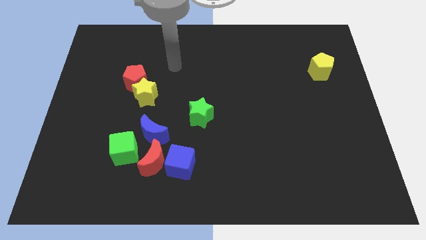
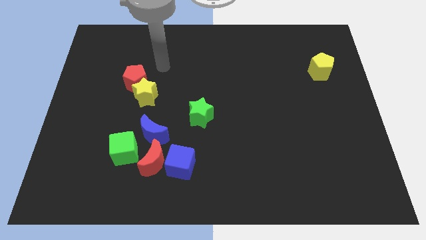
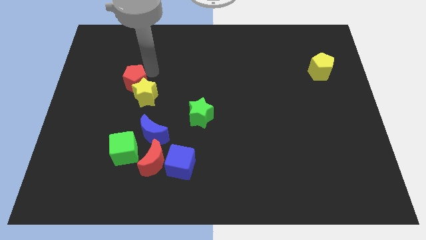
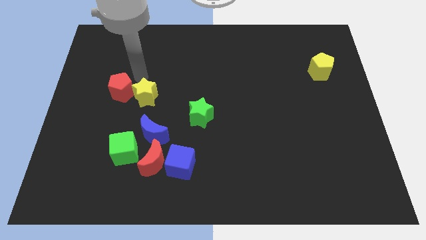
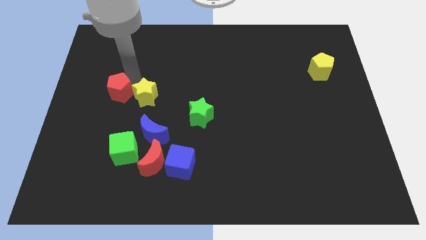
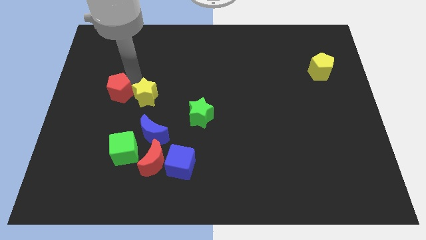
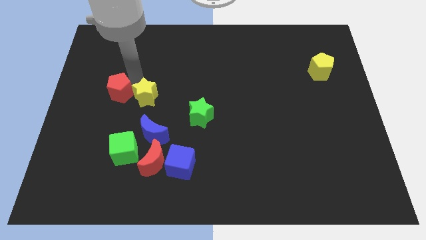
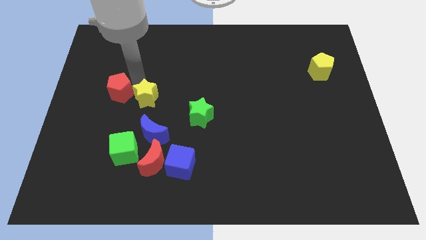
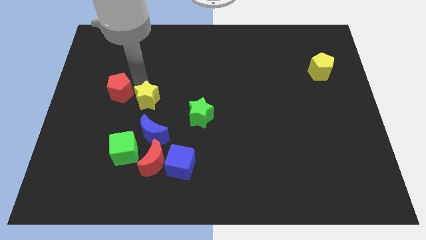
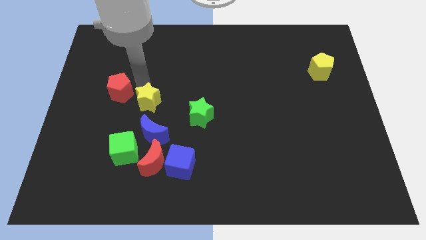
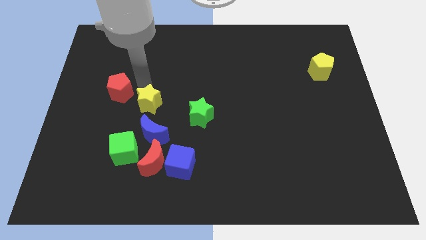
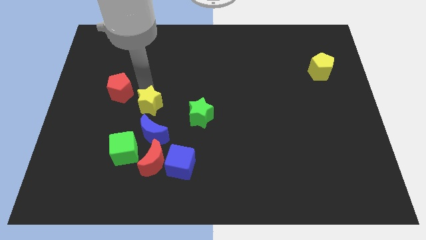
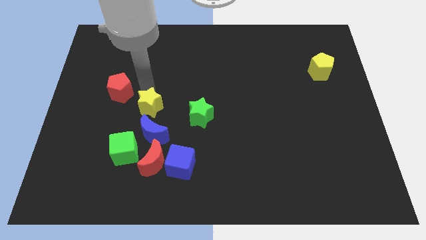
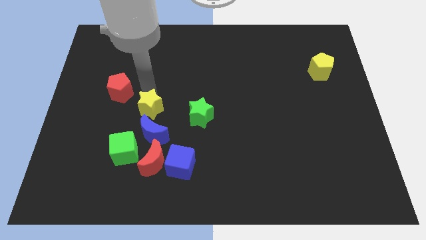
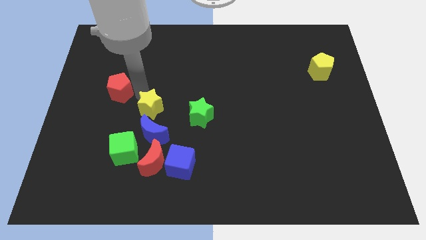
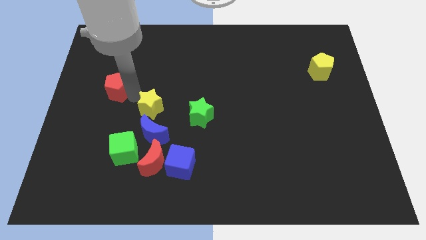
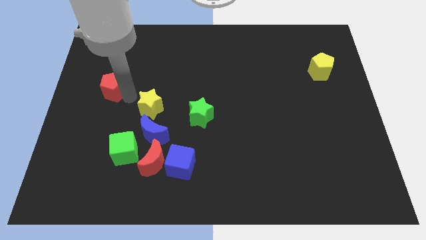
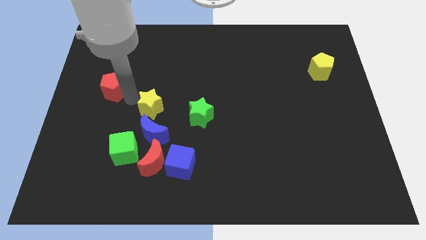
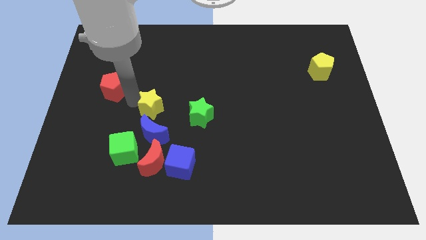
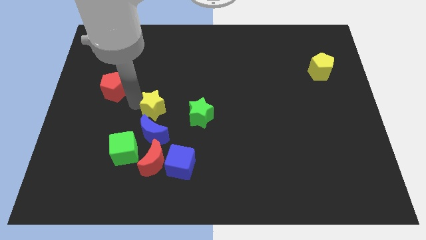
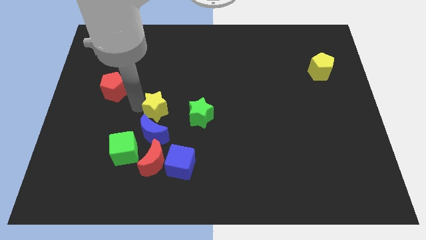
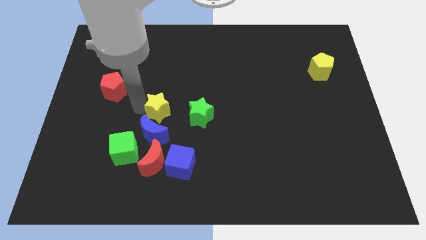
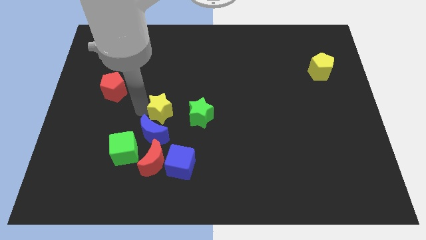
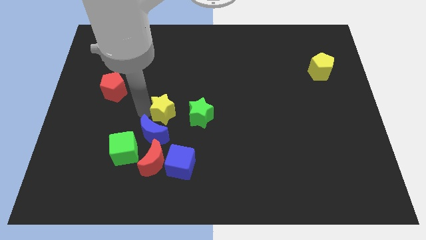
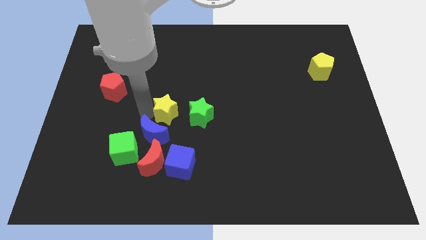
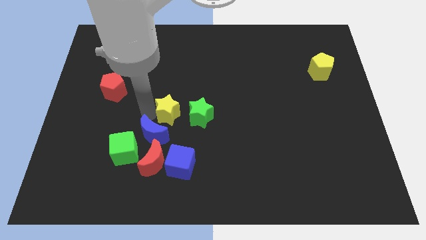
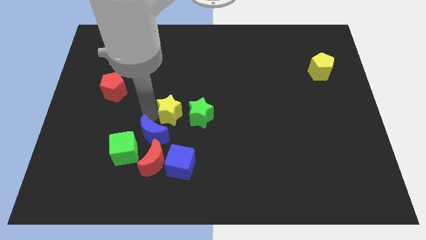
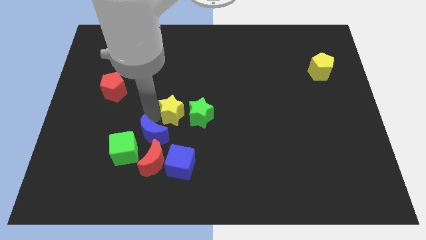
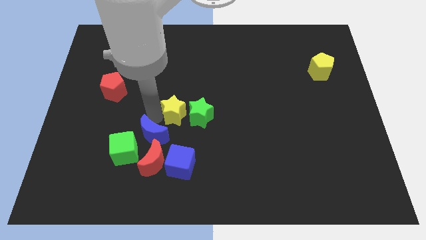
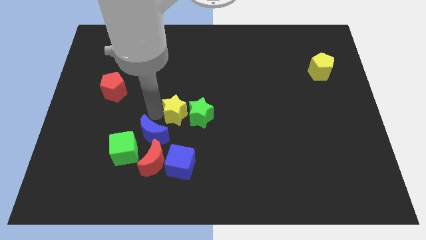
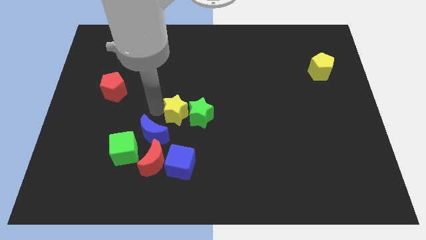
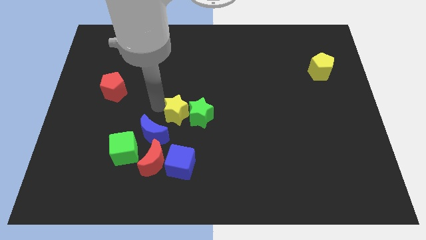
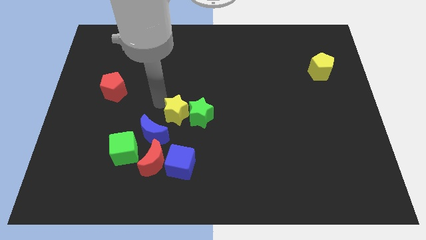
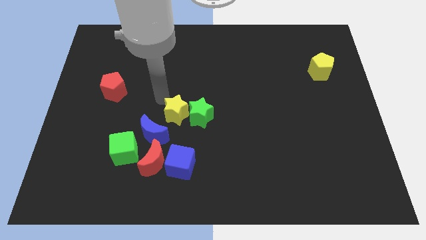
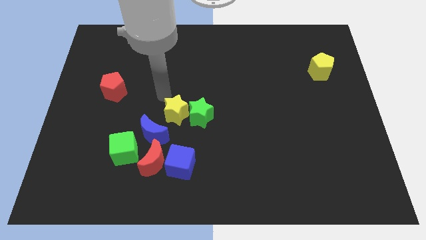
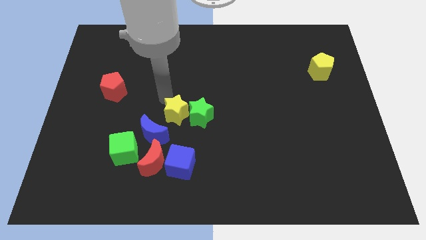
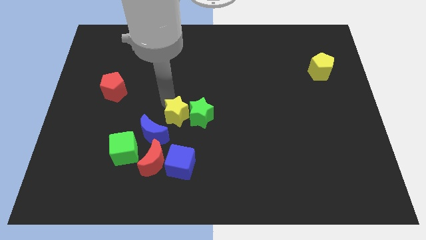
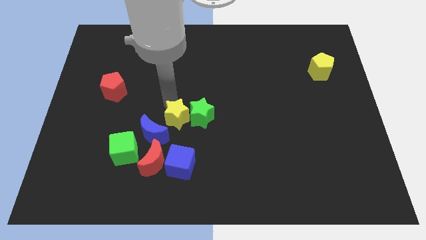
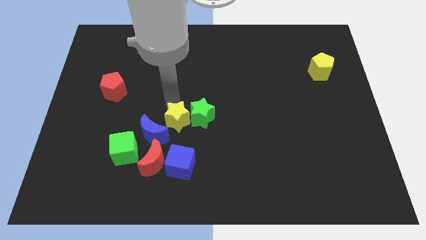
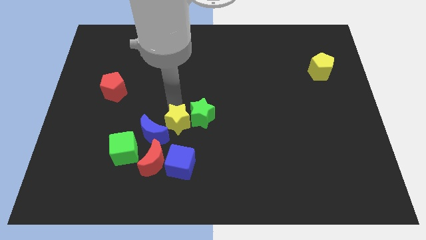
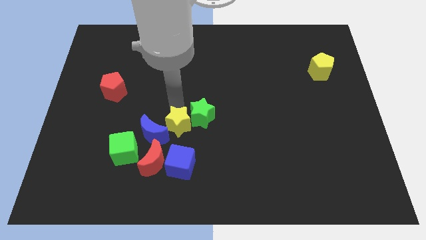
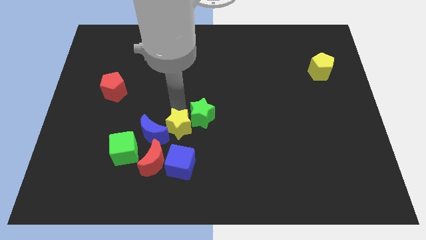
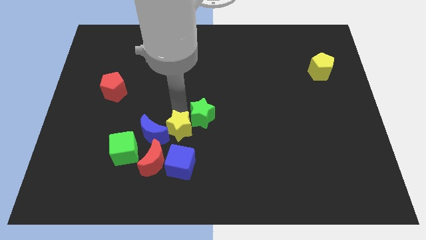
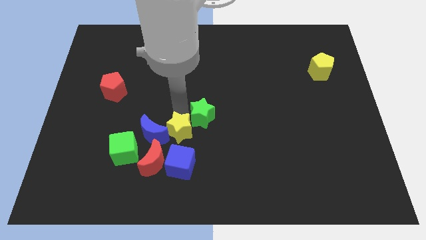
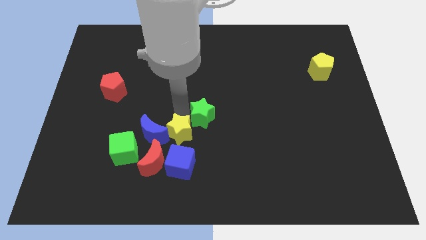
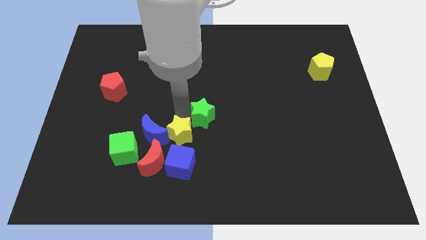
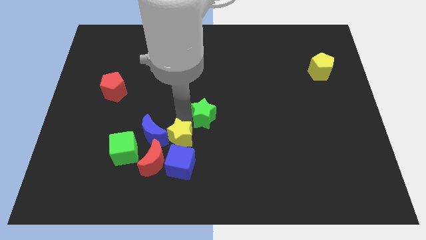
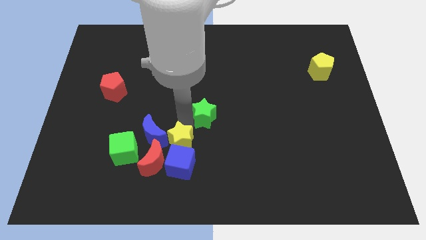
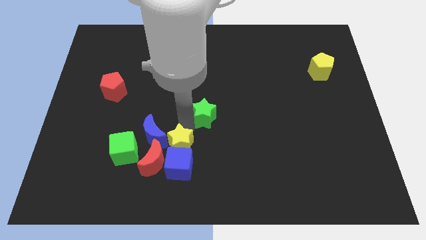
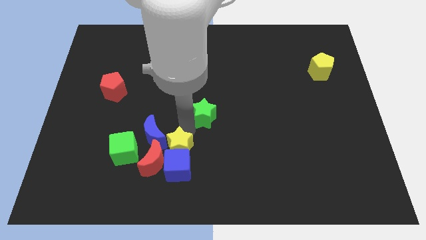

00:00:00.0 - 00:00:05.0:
slide the yellow star next to the red moon

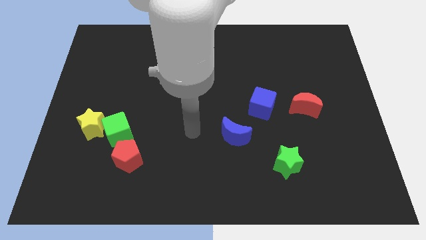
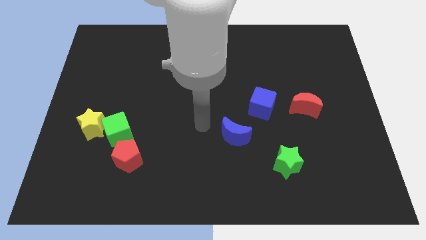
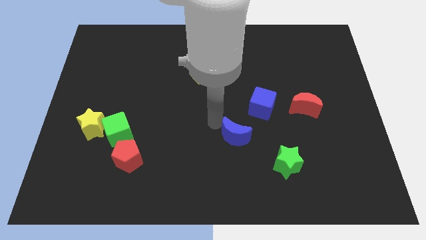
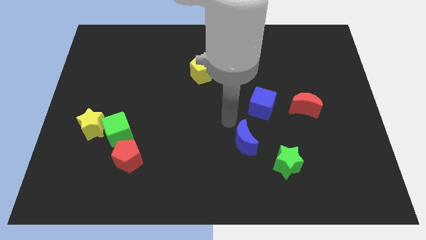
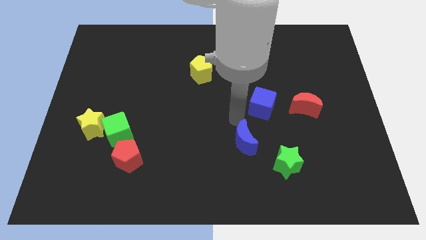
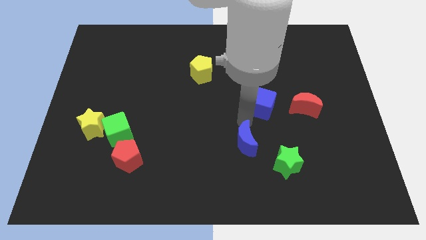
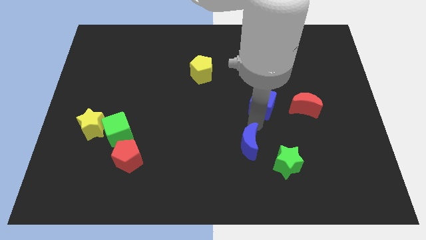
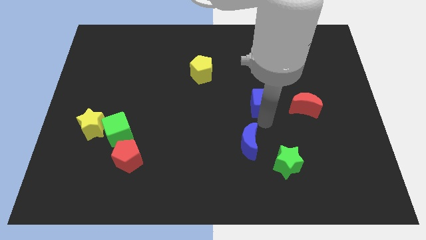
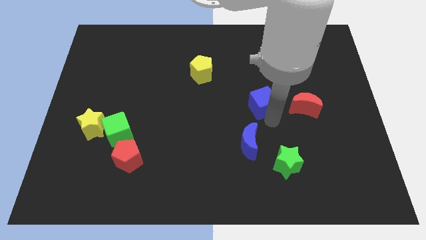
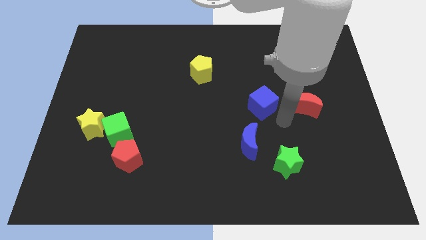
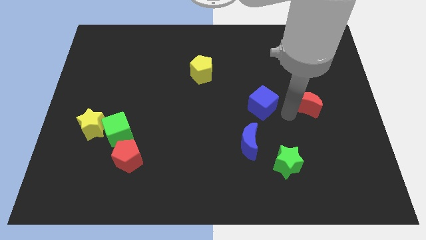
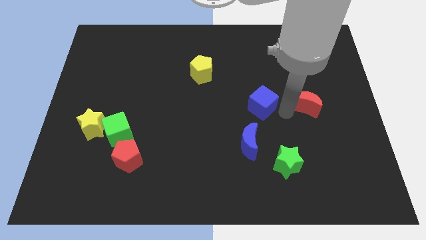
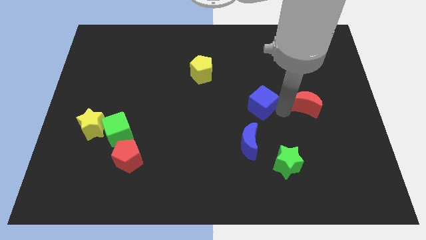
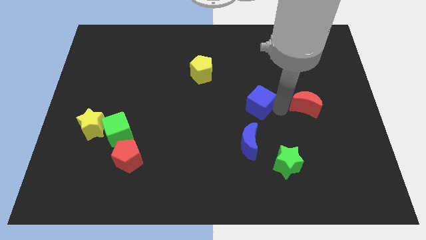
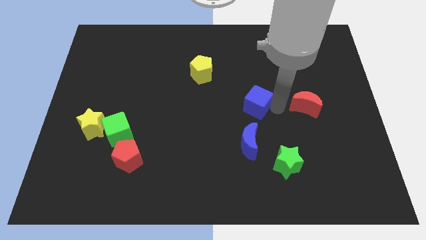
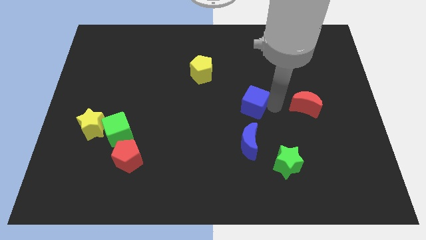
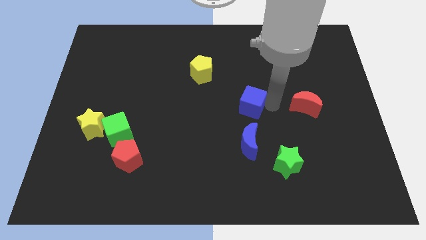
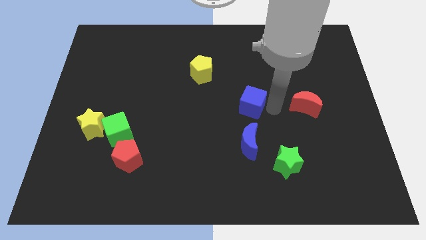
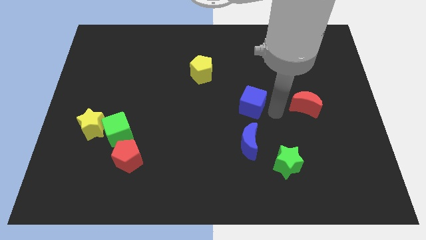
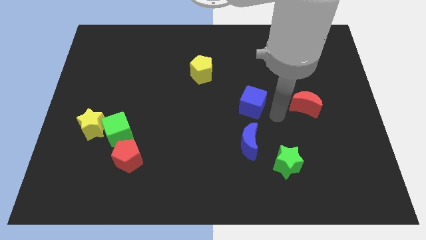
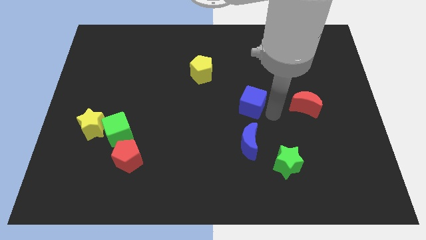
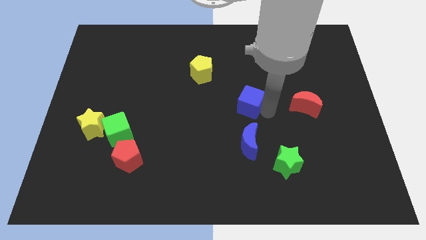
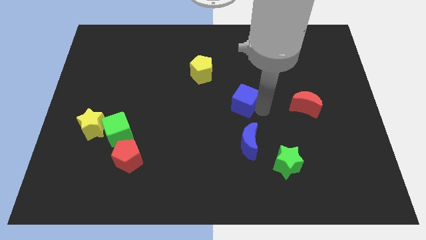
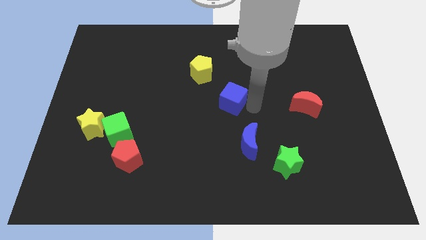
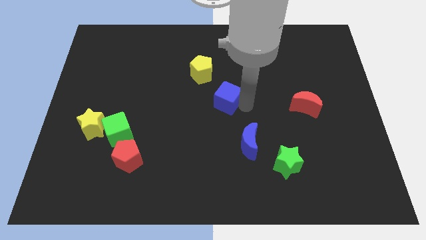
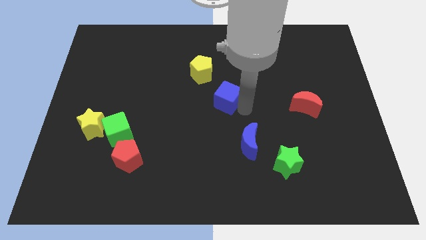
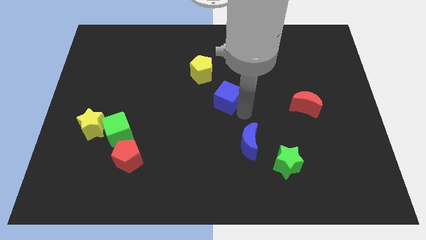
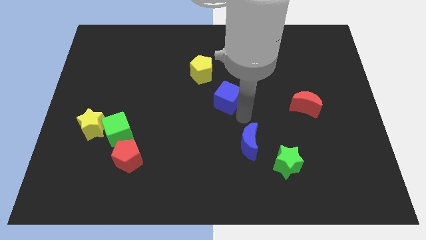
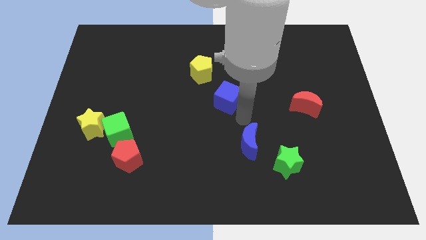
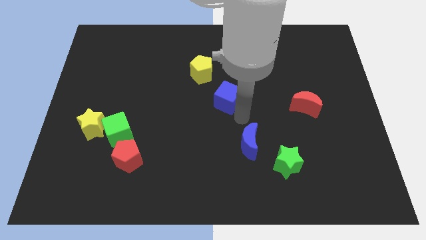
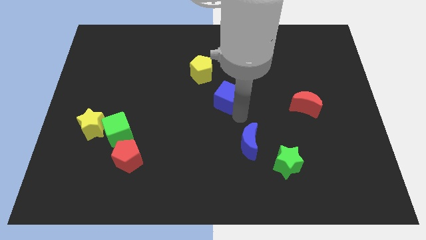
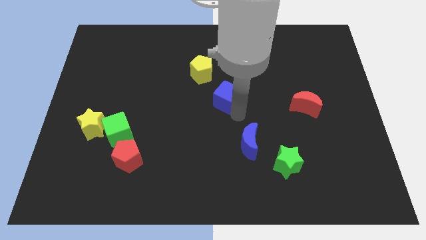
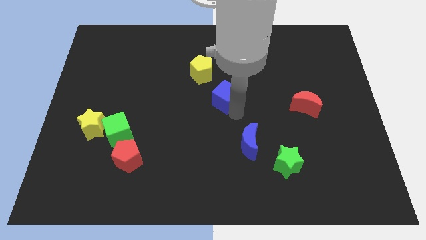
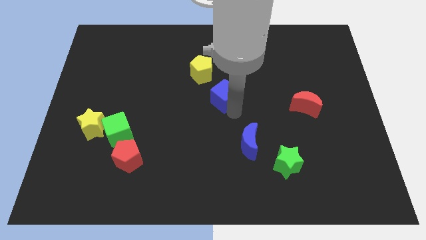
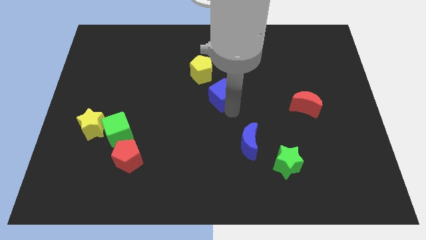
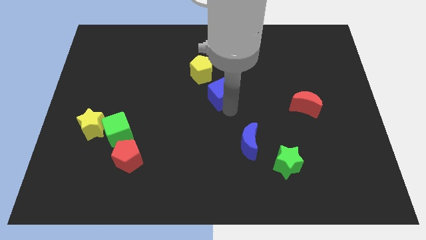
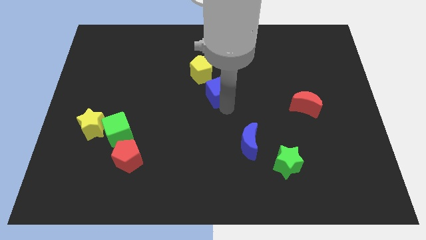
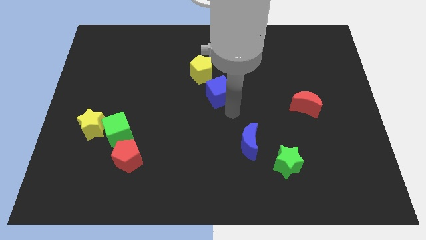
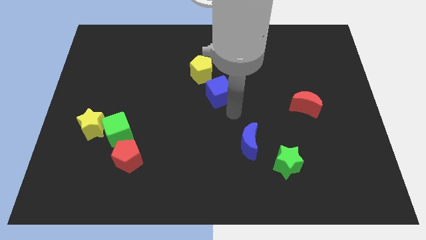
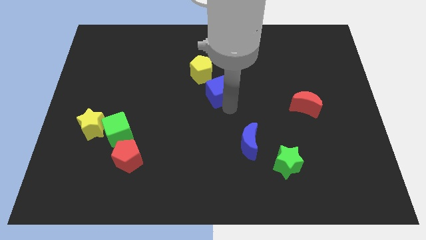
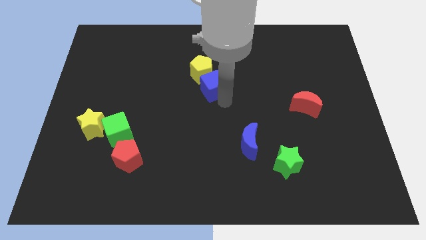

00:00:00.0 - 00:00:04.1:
put the blue cube close to the yellow pentagon
